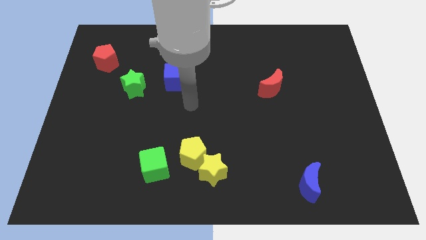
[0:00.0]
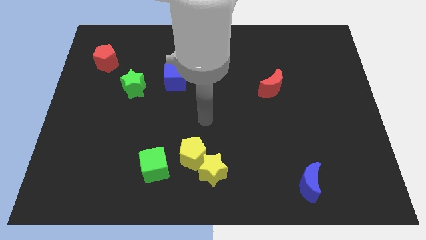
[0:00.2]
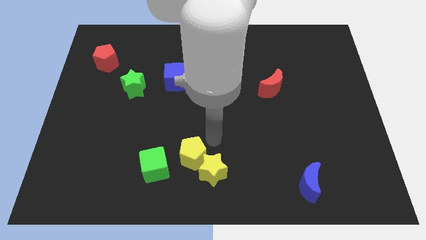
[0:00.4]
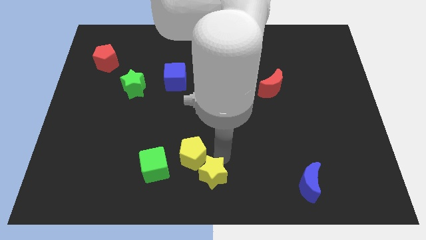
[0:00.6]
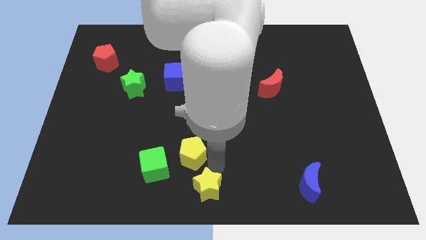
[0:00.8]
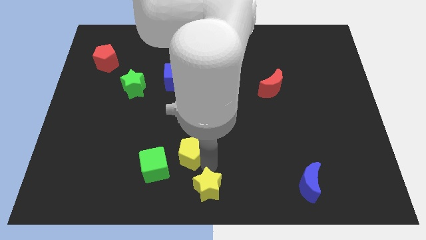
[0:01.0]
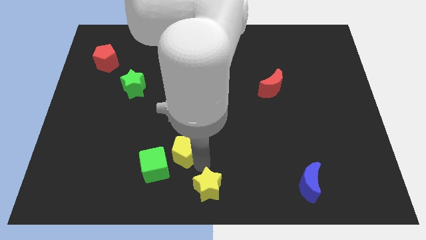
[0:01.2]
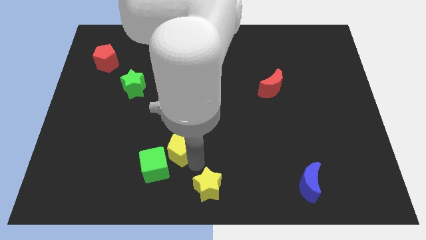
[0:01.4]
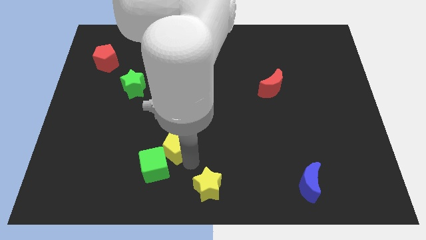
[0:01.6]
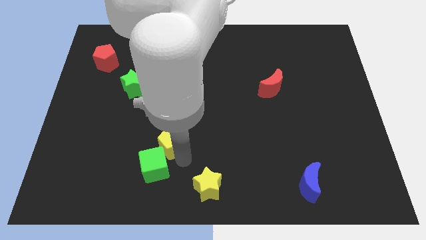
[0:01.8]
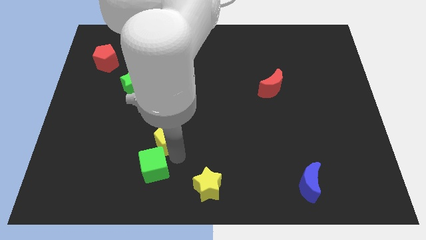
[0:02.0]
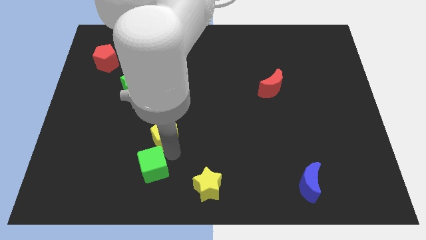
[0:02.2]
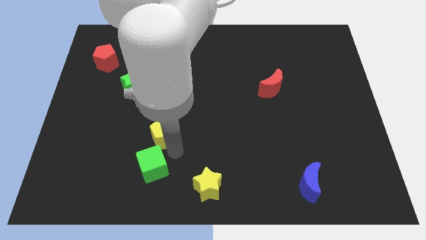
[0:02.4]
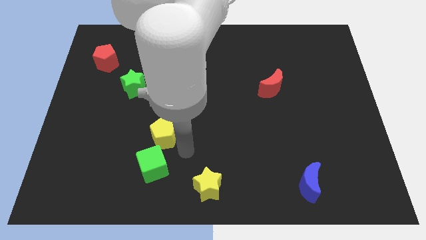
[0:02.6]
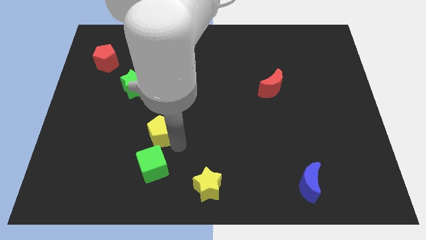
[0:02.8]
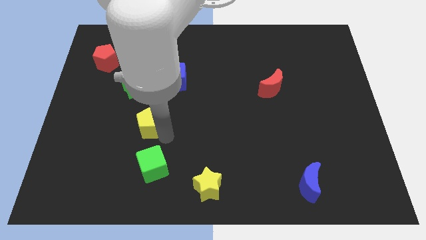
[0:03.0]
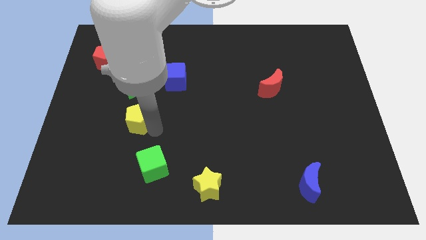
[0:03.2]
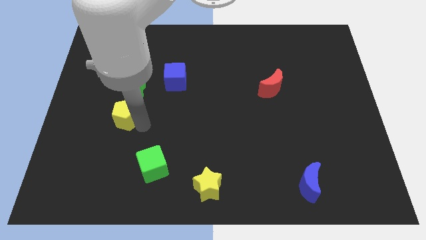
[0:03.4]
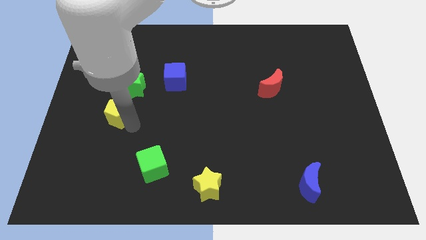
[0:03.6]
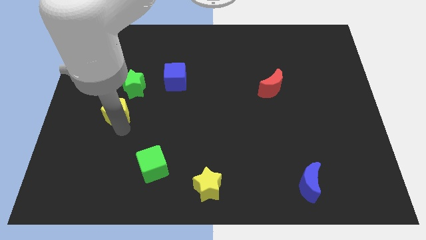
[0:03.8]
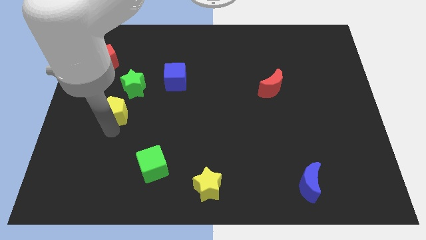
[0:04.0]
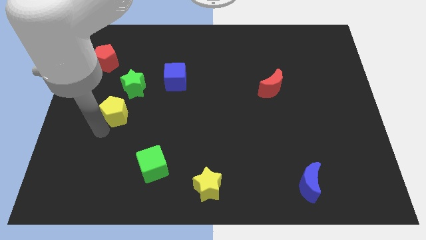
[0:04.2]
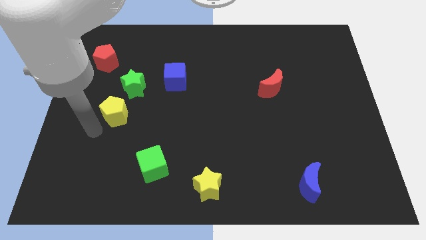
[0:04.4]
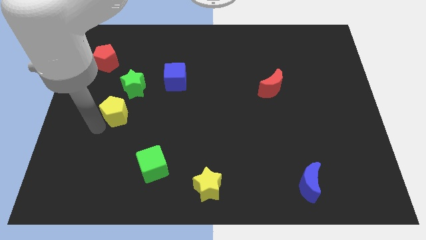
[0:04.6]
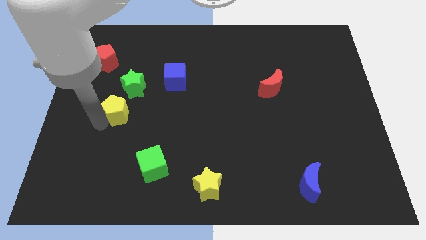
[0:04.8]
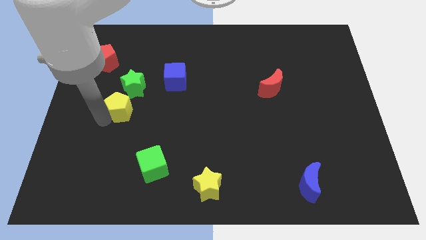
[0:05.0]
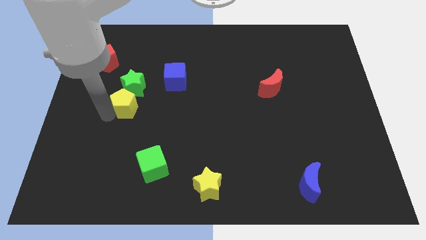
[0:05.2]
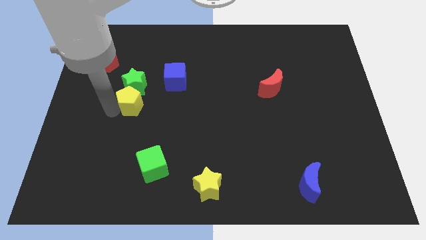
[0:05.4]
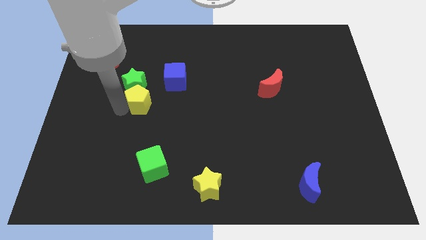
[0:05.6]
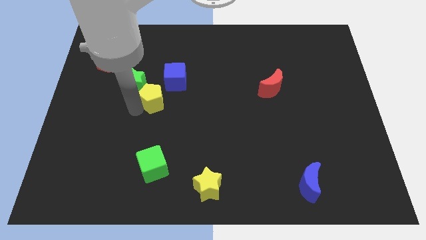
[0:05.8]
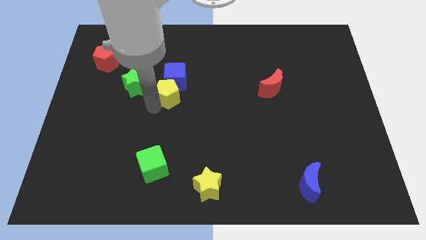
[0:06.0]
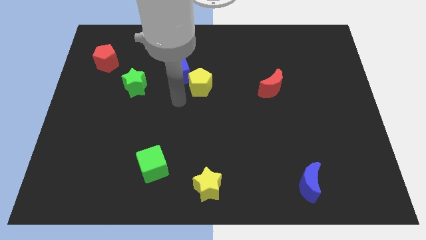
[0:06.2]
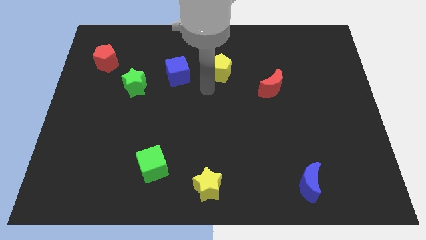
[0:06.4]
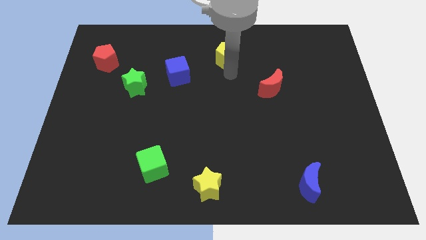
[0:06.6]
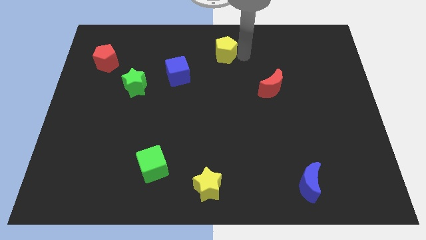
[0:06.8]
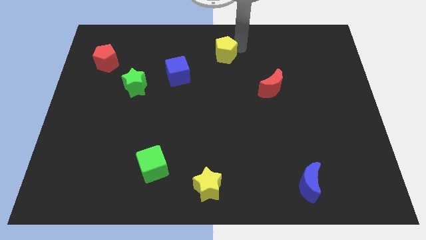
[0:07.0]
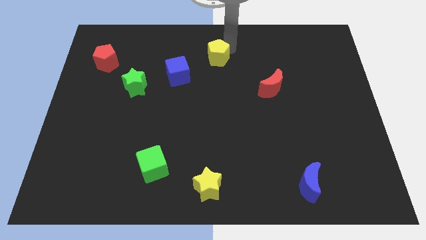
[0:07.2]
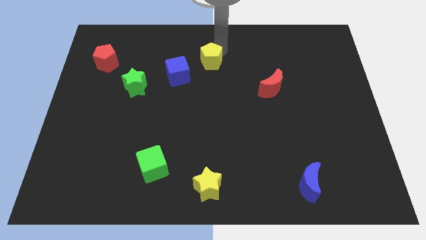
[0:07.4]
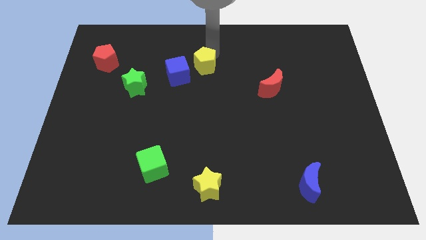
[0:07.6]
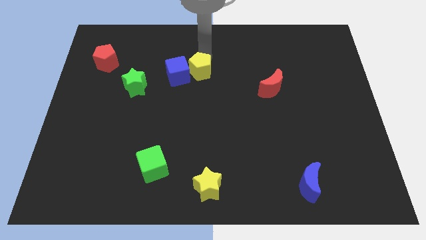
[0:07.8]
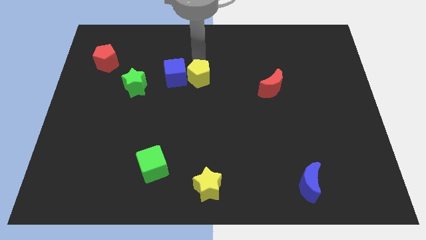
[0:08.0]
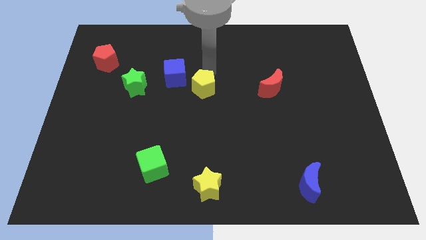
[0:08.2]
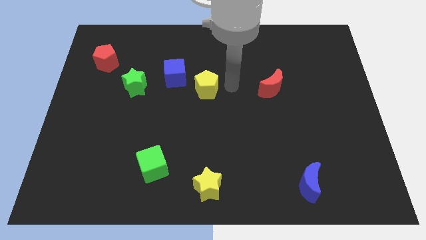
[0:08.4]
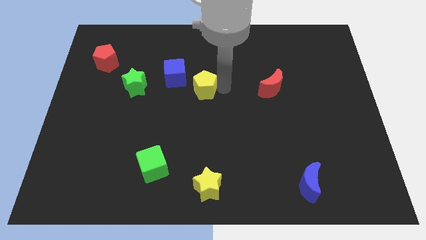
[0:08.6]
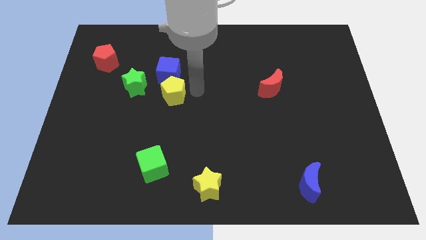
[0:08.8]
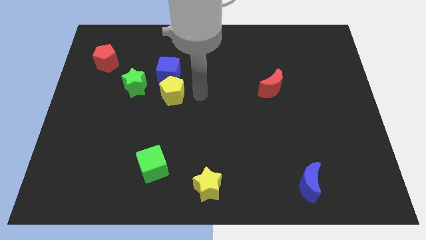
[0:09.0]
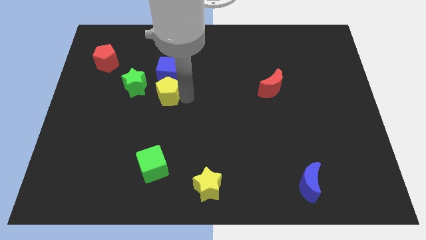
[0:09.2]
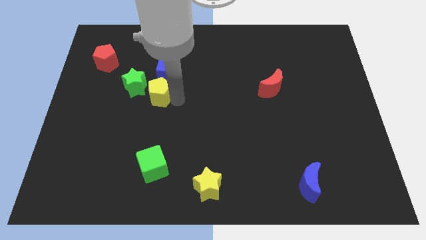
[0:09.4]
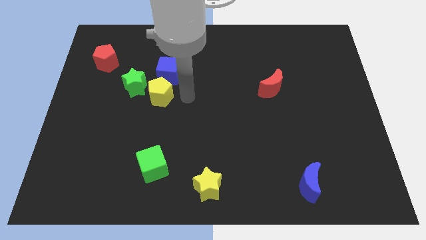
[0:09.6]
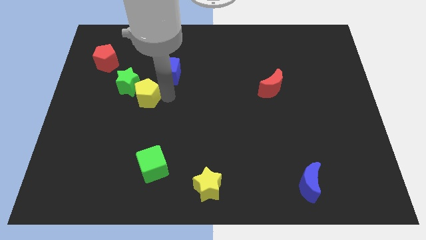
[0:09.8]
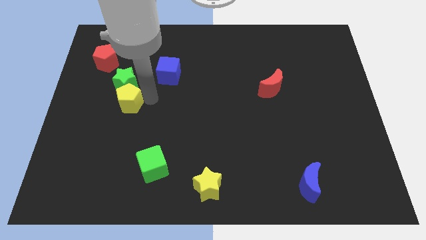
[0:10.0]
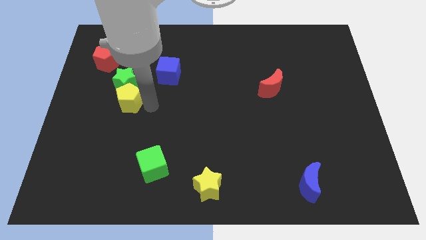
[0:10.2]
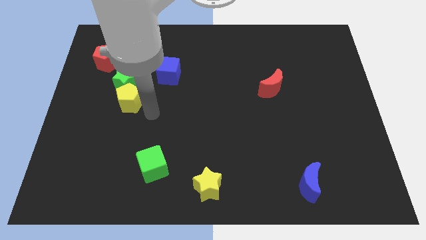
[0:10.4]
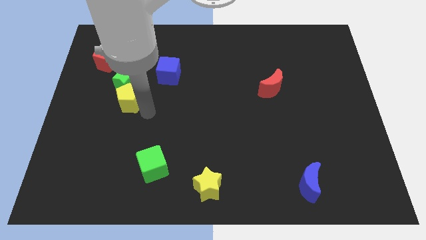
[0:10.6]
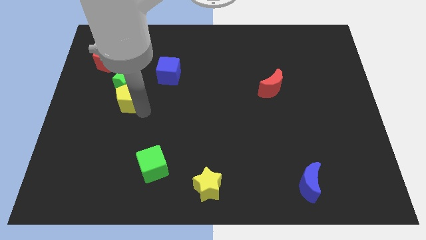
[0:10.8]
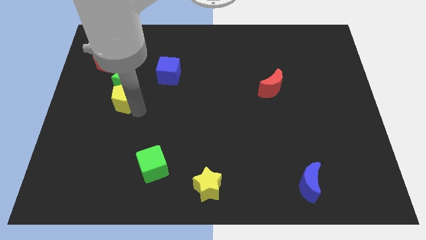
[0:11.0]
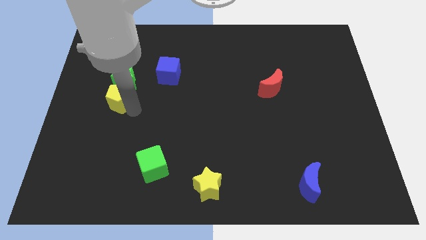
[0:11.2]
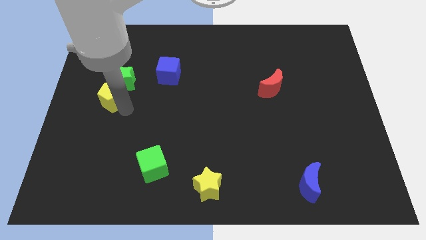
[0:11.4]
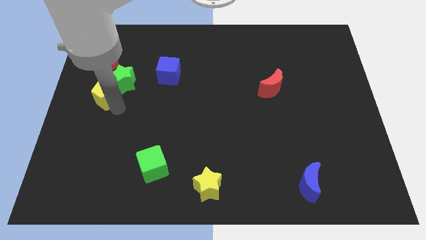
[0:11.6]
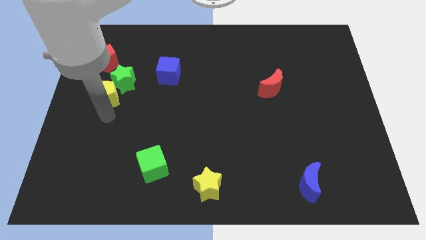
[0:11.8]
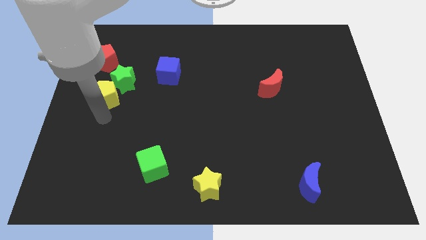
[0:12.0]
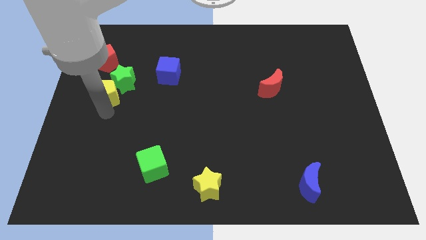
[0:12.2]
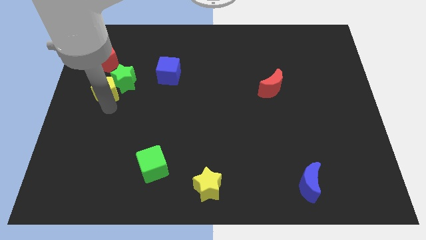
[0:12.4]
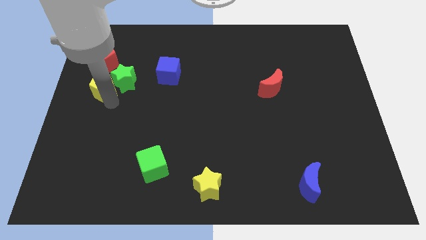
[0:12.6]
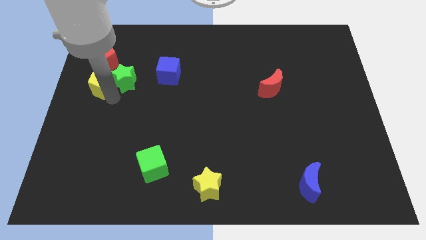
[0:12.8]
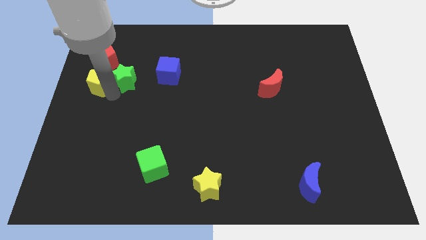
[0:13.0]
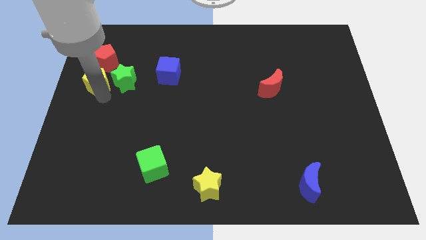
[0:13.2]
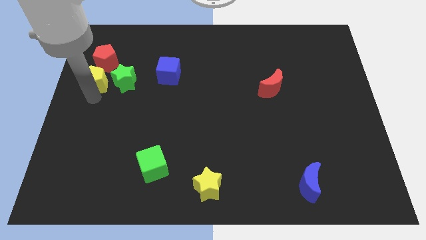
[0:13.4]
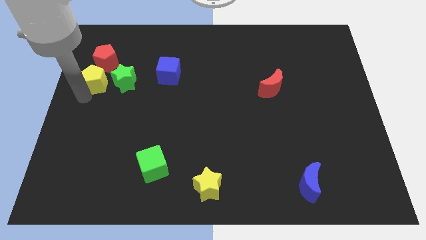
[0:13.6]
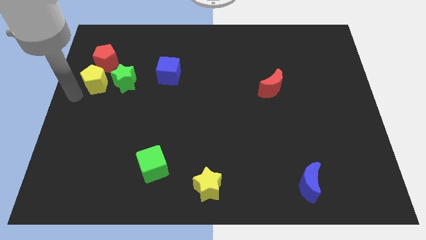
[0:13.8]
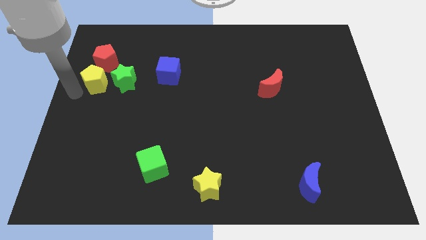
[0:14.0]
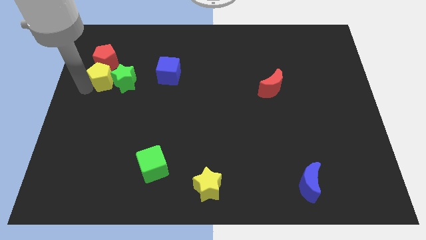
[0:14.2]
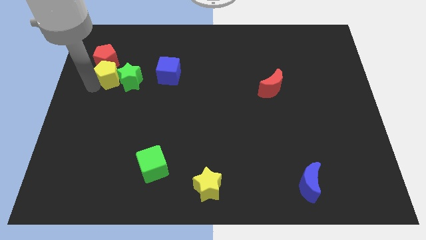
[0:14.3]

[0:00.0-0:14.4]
slide the yellow pentagon towards the red pentagon
